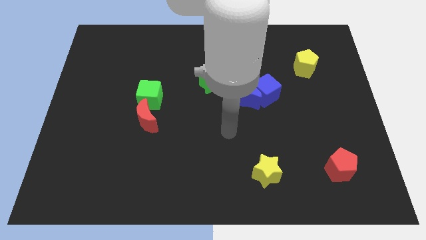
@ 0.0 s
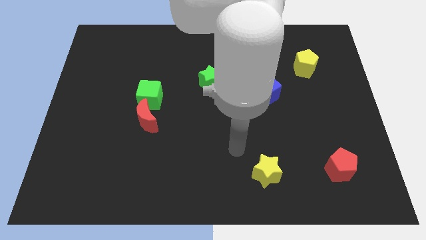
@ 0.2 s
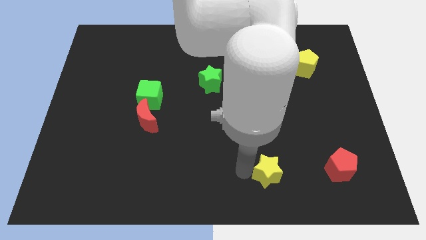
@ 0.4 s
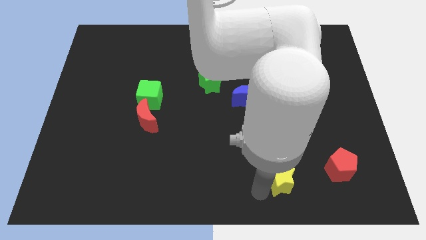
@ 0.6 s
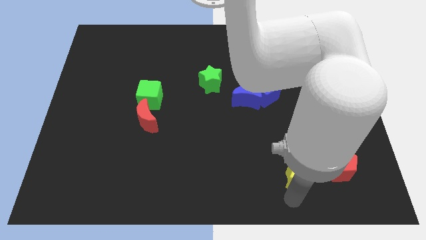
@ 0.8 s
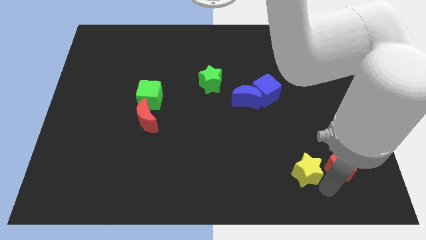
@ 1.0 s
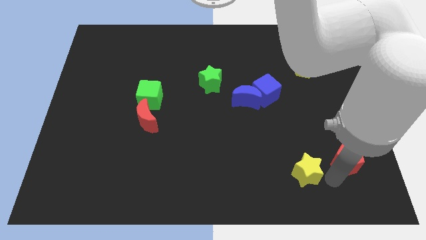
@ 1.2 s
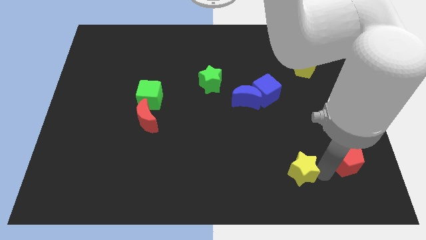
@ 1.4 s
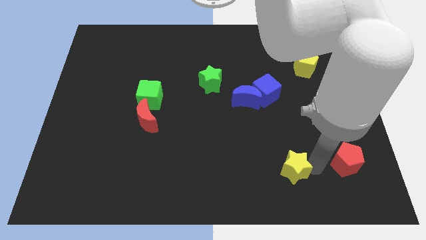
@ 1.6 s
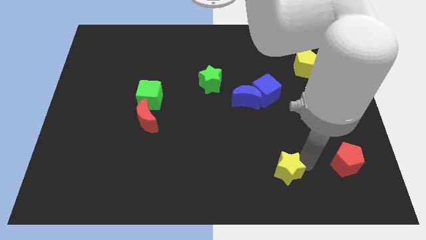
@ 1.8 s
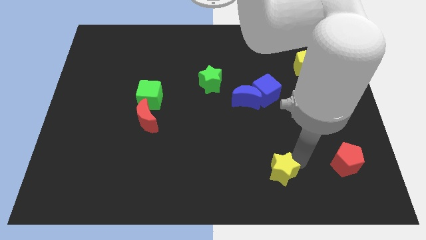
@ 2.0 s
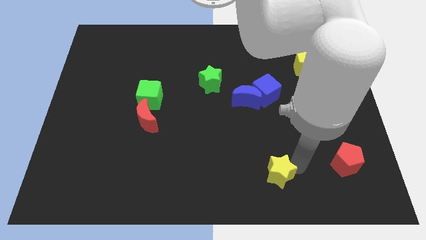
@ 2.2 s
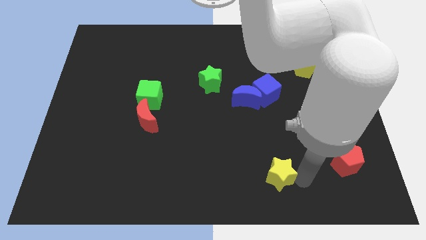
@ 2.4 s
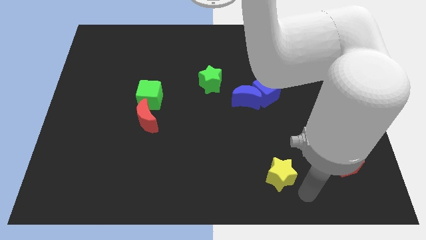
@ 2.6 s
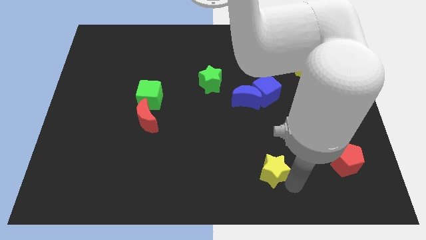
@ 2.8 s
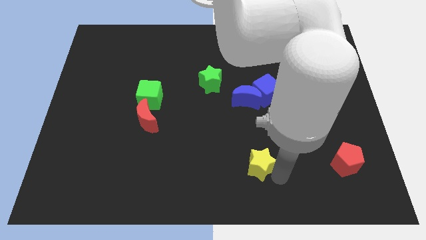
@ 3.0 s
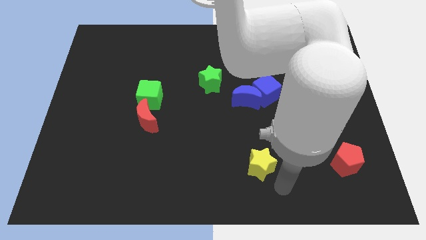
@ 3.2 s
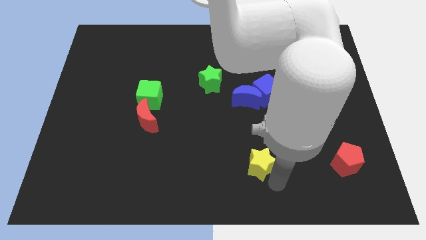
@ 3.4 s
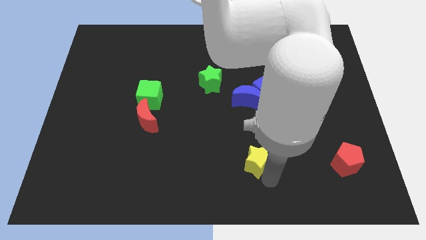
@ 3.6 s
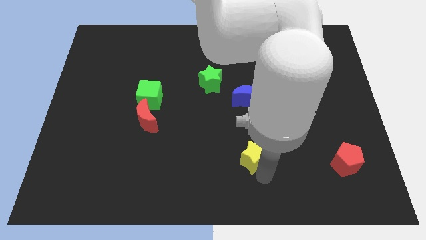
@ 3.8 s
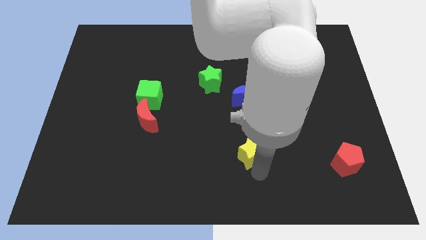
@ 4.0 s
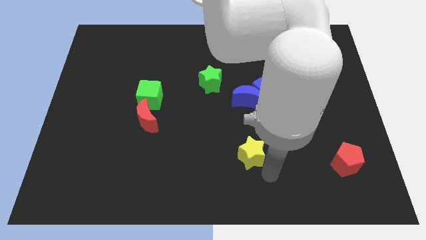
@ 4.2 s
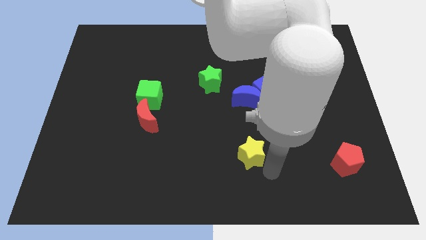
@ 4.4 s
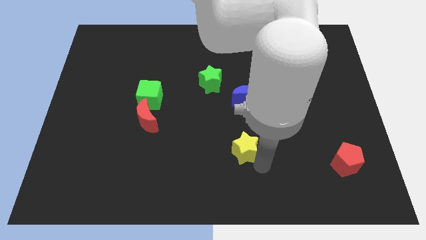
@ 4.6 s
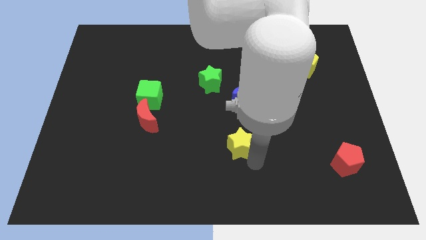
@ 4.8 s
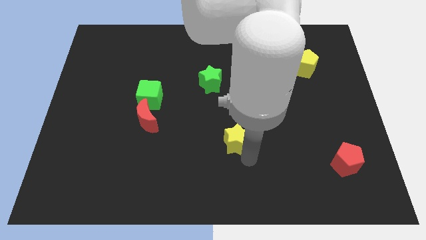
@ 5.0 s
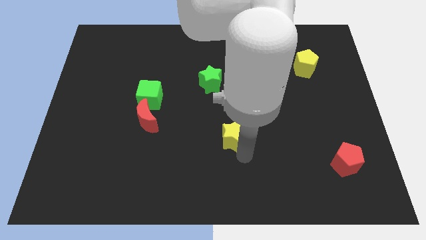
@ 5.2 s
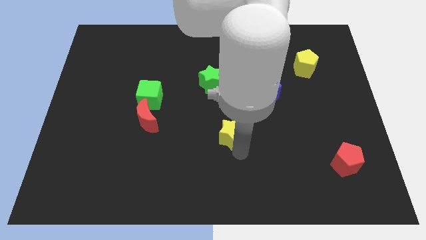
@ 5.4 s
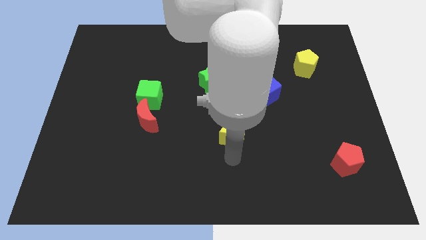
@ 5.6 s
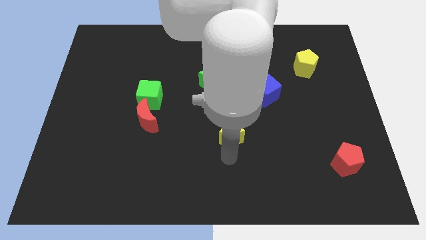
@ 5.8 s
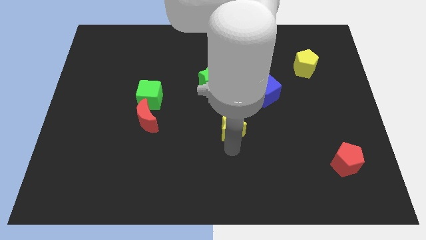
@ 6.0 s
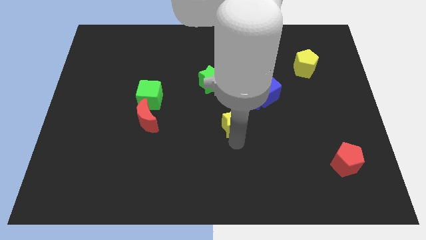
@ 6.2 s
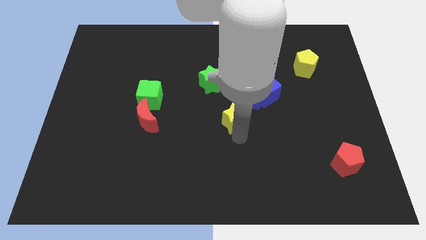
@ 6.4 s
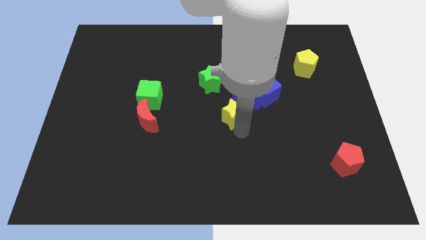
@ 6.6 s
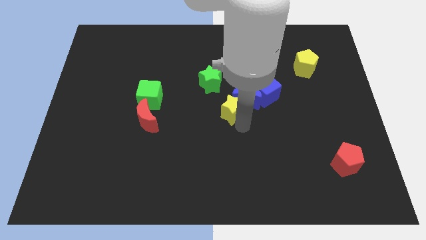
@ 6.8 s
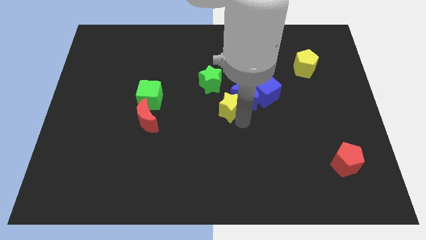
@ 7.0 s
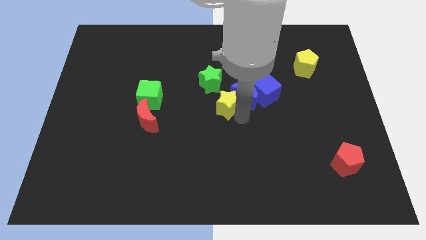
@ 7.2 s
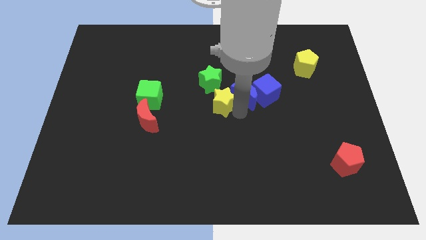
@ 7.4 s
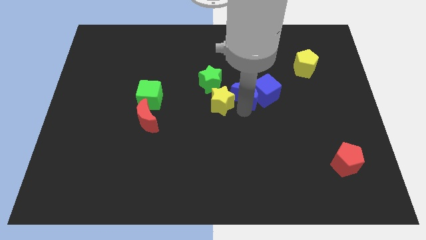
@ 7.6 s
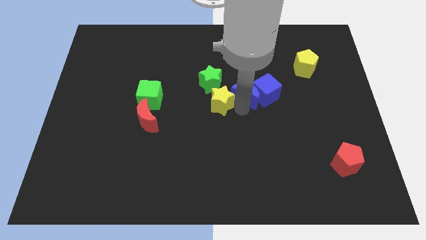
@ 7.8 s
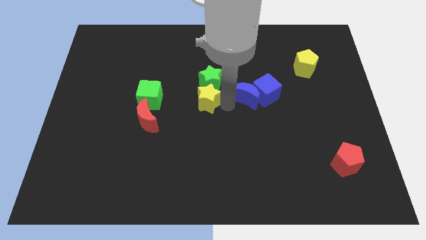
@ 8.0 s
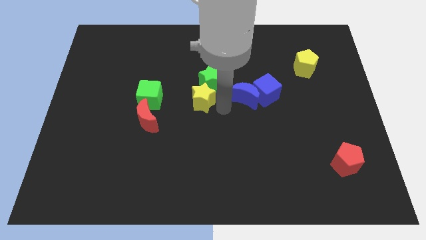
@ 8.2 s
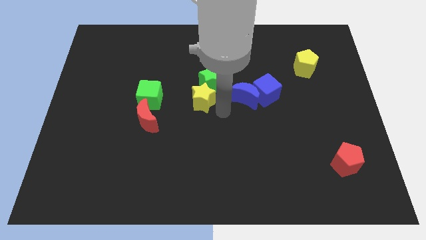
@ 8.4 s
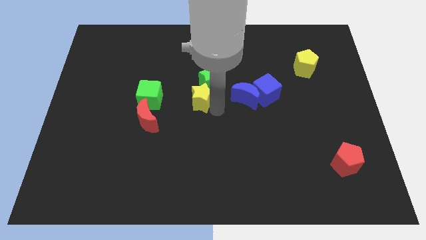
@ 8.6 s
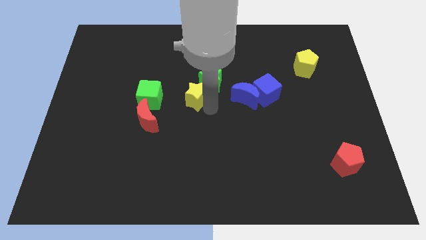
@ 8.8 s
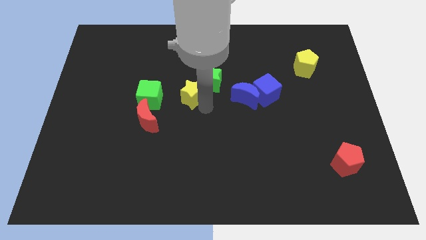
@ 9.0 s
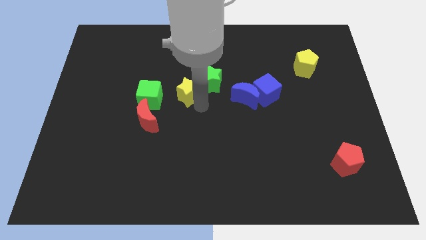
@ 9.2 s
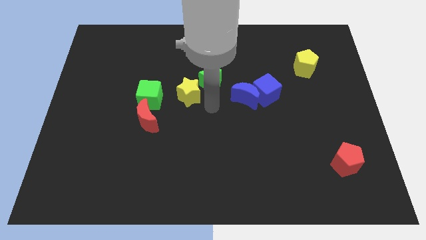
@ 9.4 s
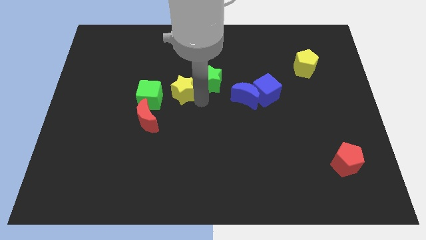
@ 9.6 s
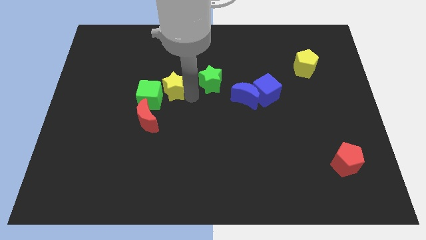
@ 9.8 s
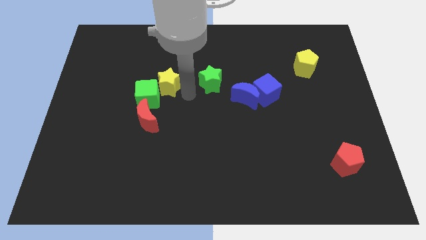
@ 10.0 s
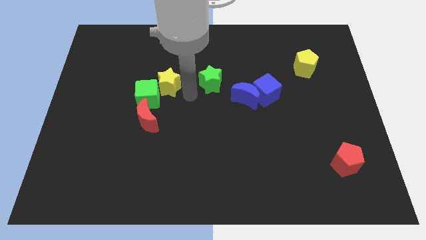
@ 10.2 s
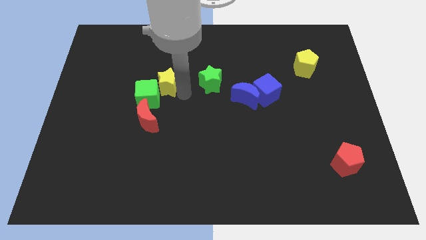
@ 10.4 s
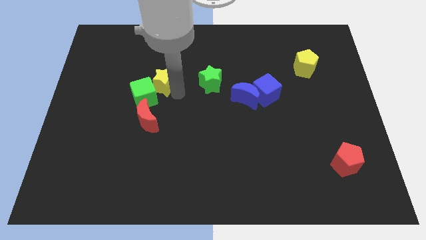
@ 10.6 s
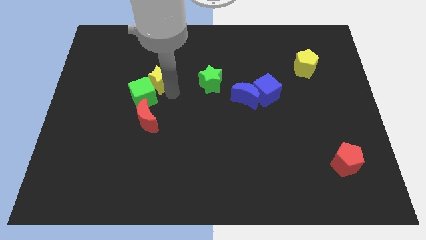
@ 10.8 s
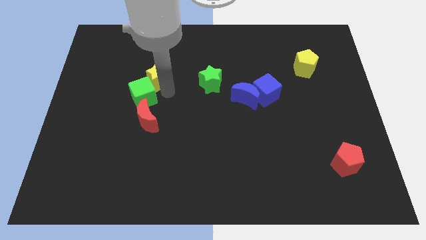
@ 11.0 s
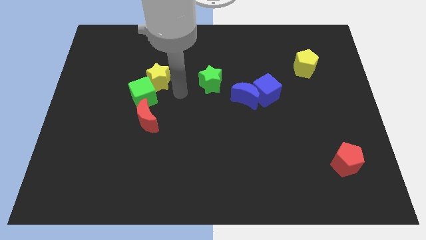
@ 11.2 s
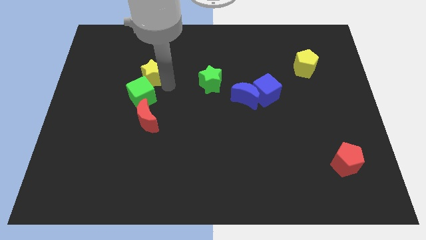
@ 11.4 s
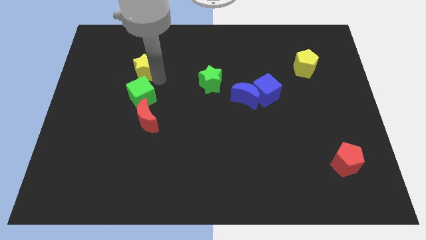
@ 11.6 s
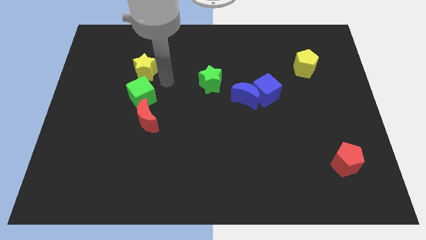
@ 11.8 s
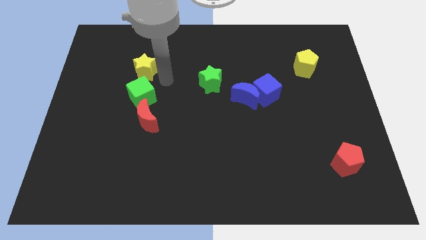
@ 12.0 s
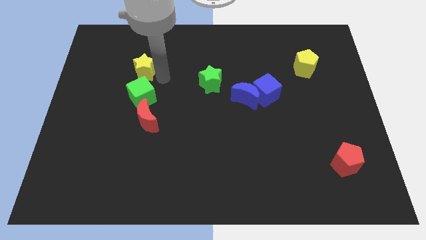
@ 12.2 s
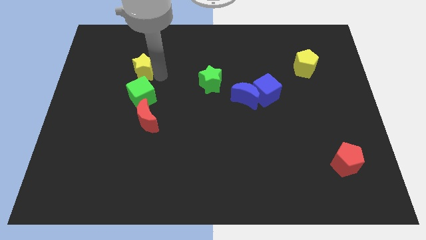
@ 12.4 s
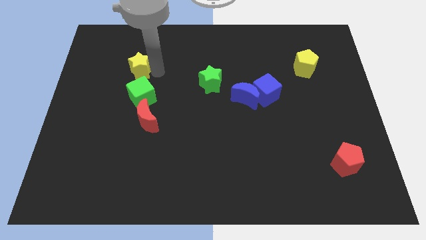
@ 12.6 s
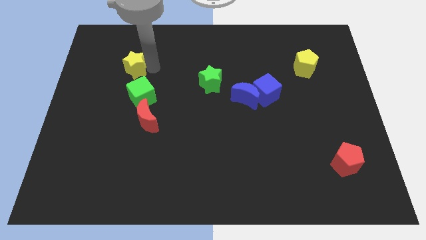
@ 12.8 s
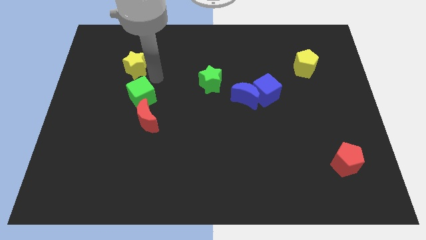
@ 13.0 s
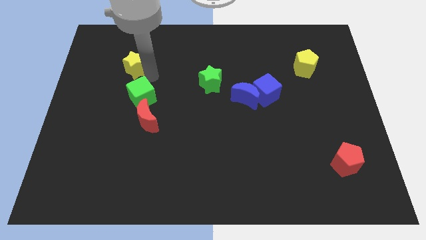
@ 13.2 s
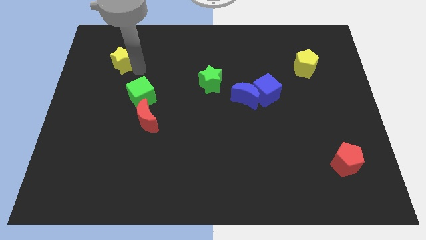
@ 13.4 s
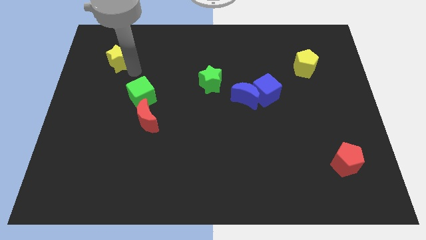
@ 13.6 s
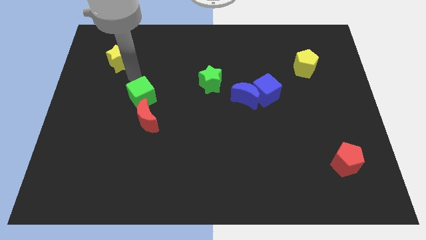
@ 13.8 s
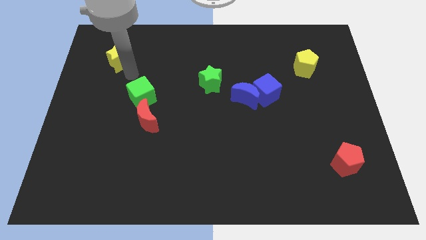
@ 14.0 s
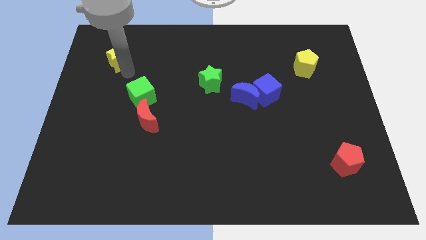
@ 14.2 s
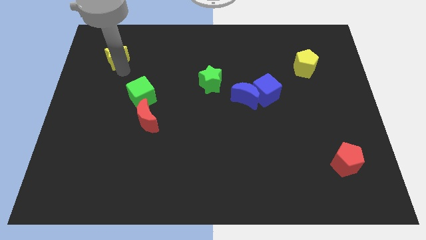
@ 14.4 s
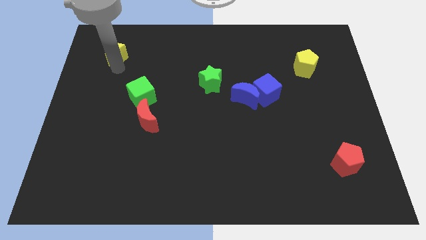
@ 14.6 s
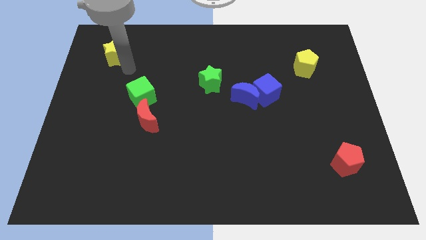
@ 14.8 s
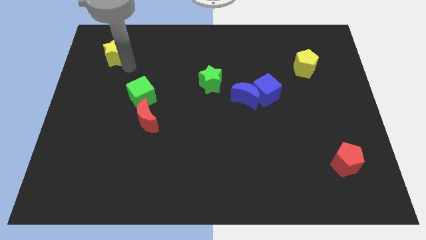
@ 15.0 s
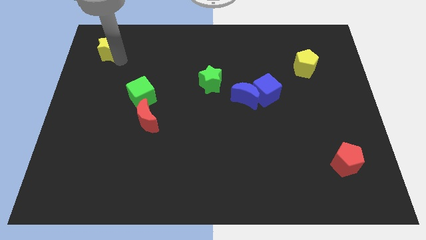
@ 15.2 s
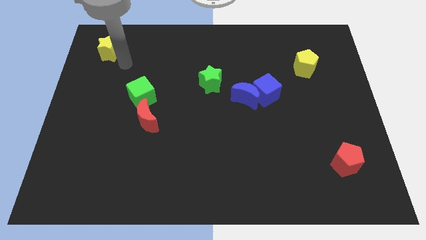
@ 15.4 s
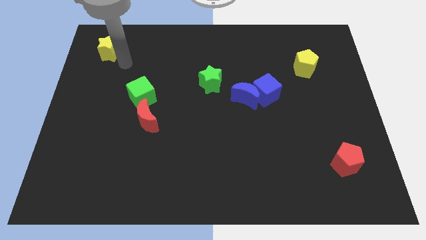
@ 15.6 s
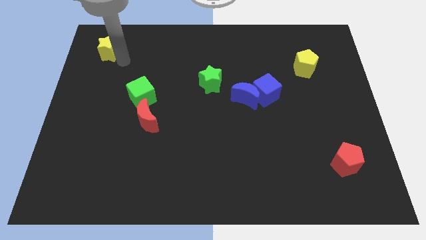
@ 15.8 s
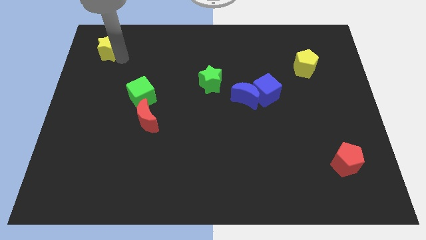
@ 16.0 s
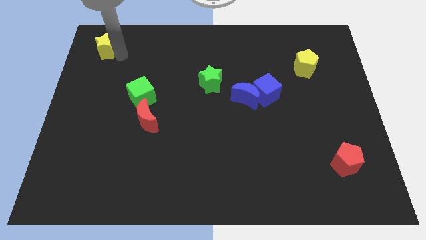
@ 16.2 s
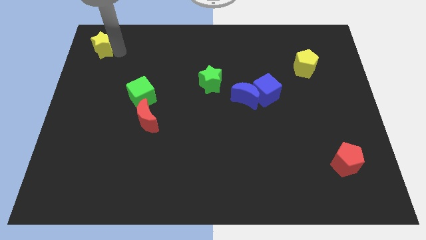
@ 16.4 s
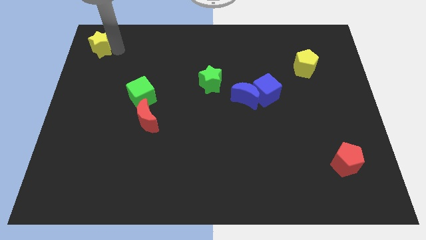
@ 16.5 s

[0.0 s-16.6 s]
move the yellow star to the top left corner
